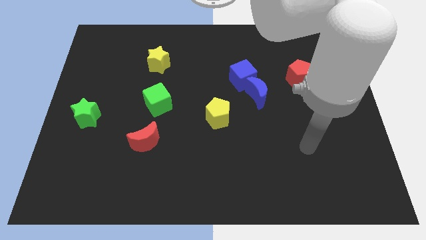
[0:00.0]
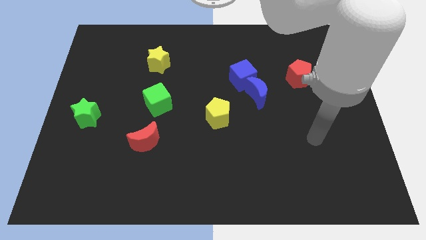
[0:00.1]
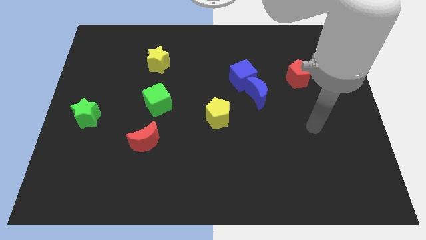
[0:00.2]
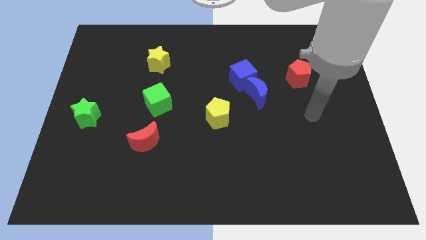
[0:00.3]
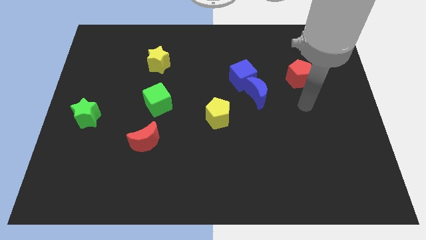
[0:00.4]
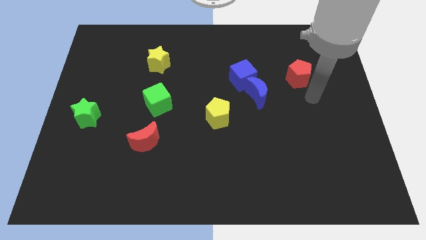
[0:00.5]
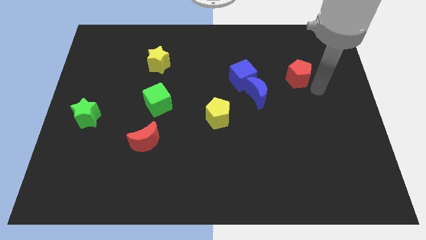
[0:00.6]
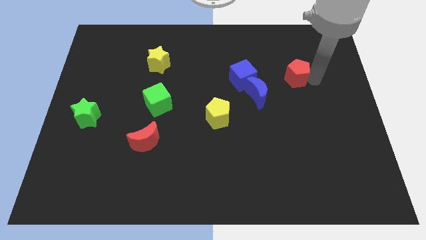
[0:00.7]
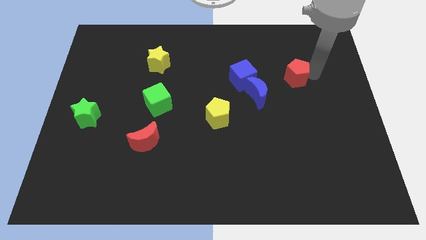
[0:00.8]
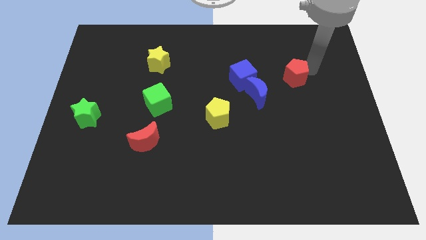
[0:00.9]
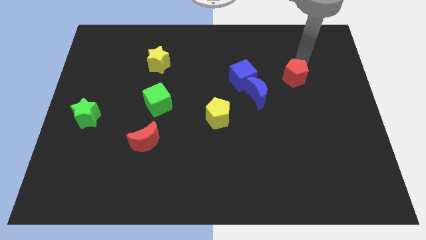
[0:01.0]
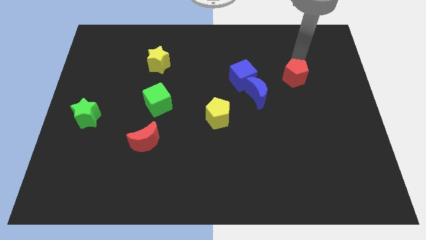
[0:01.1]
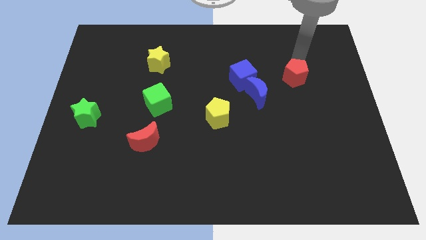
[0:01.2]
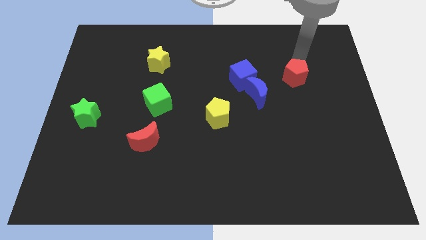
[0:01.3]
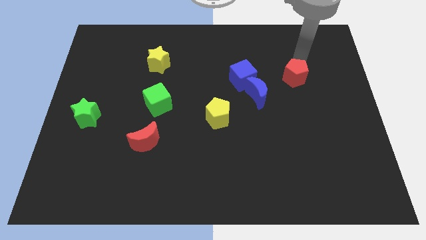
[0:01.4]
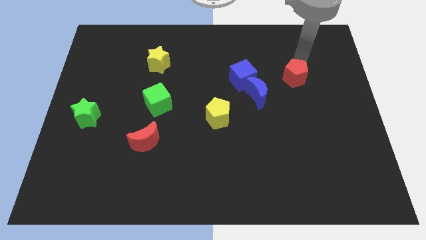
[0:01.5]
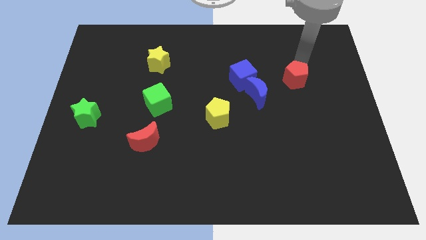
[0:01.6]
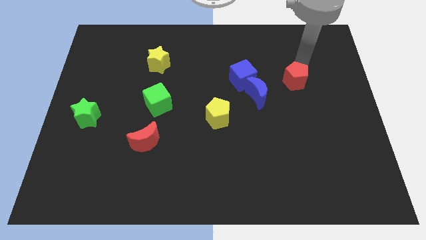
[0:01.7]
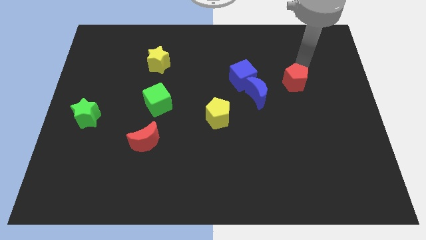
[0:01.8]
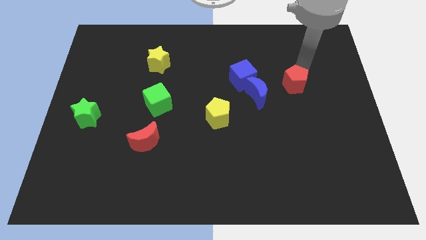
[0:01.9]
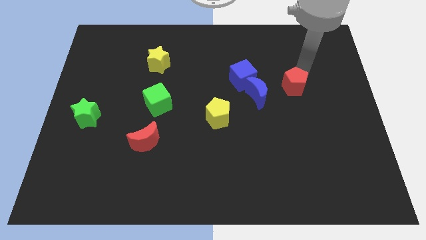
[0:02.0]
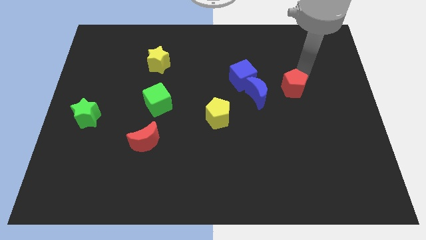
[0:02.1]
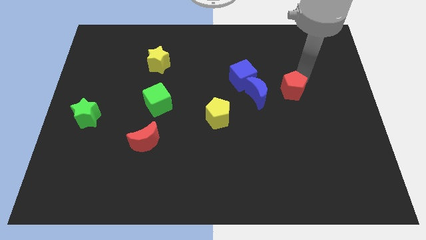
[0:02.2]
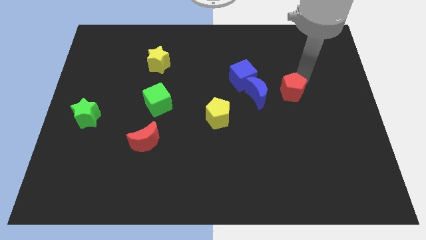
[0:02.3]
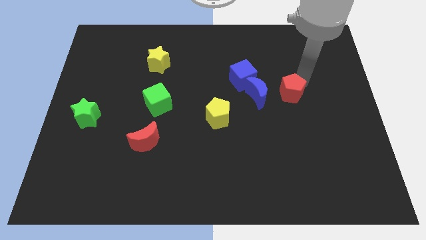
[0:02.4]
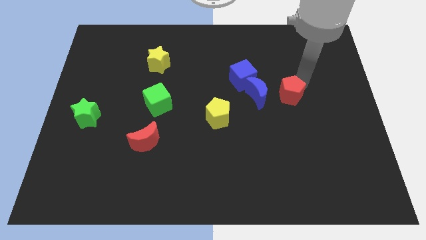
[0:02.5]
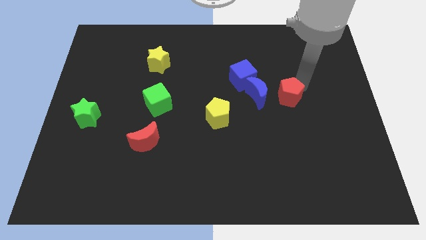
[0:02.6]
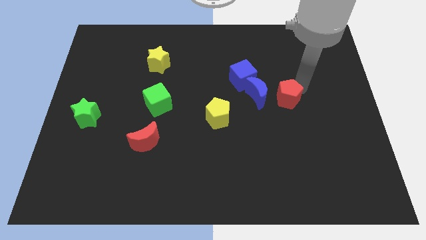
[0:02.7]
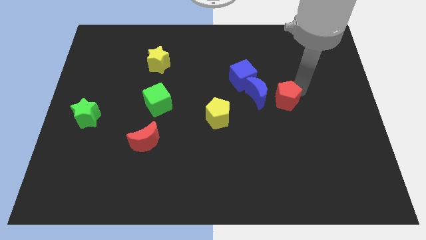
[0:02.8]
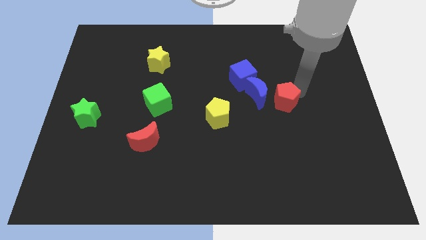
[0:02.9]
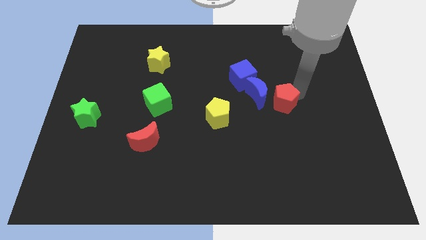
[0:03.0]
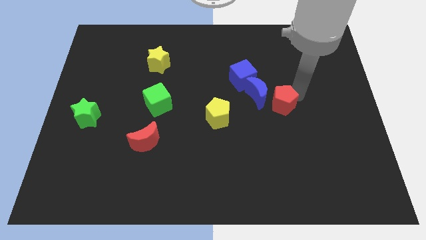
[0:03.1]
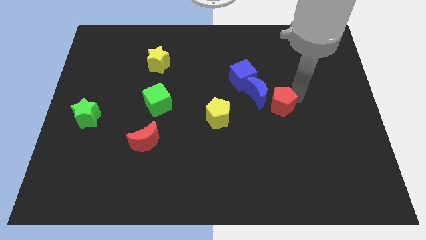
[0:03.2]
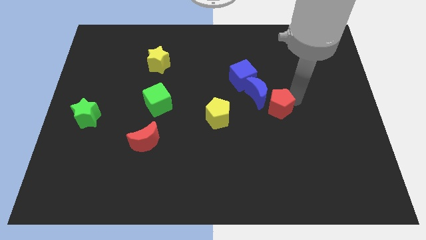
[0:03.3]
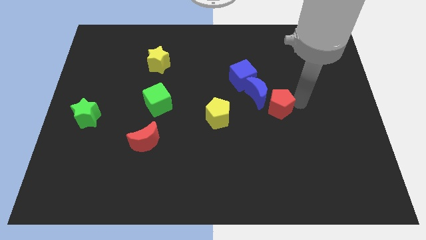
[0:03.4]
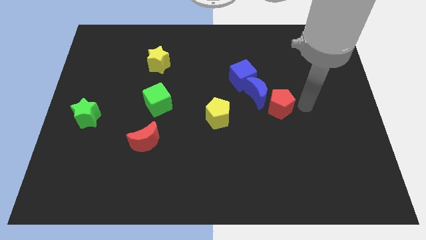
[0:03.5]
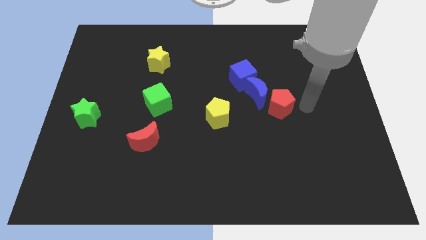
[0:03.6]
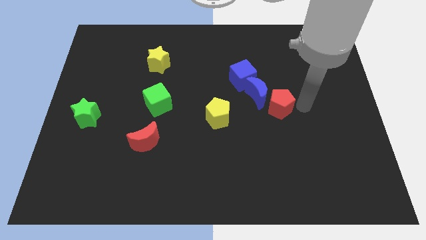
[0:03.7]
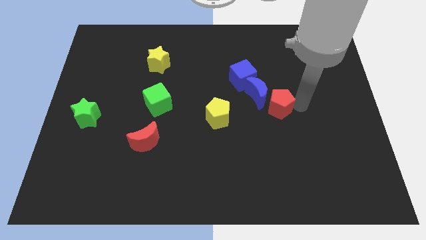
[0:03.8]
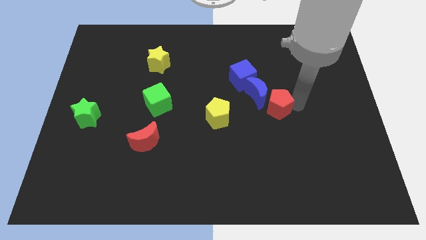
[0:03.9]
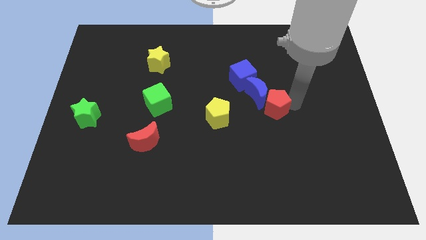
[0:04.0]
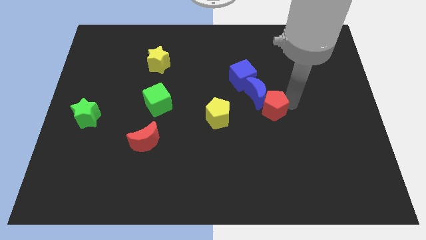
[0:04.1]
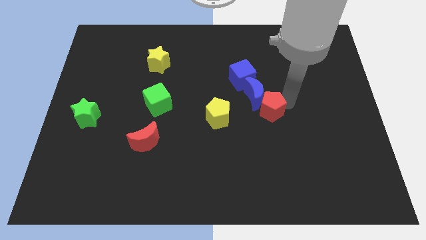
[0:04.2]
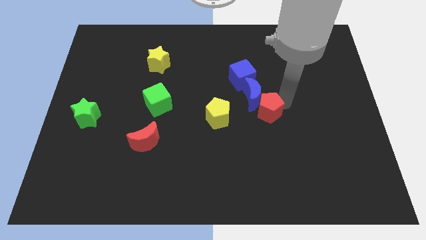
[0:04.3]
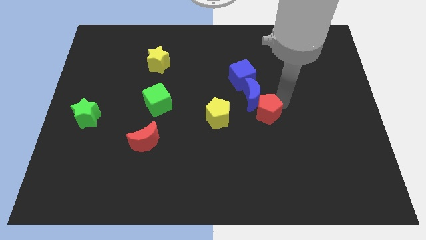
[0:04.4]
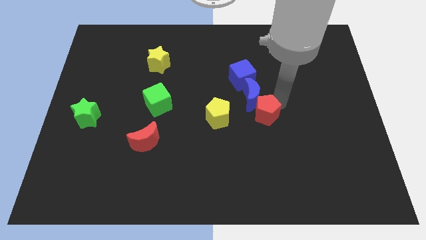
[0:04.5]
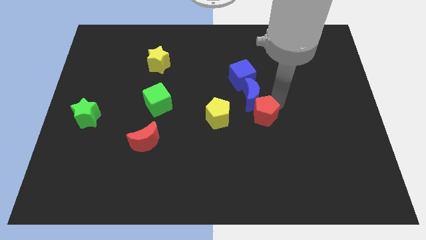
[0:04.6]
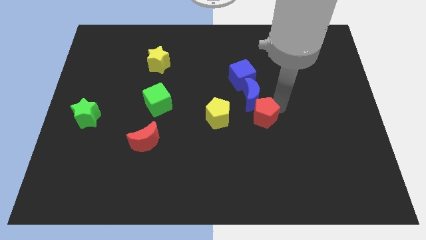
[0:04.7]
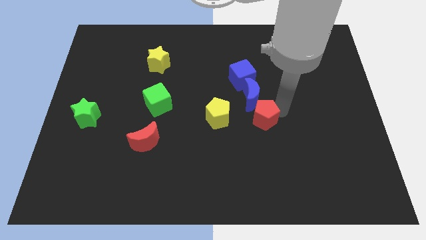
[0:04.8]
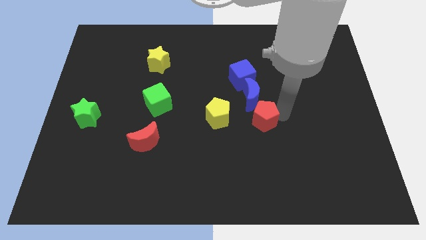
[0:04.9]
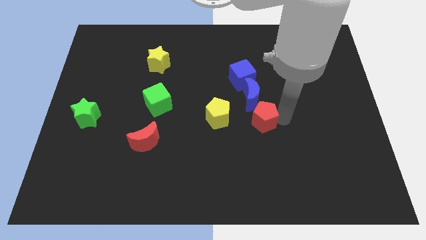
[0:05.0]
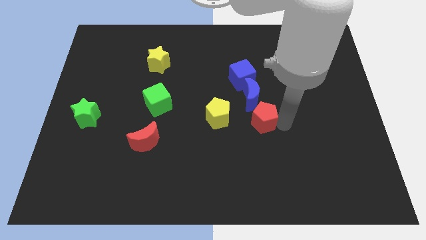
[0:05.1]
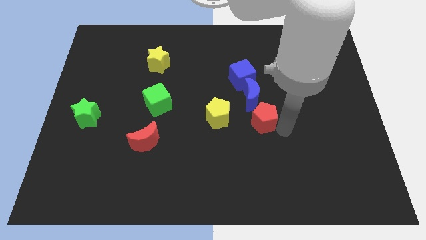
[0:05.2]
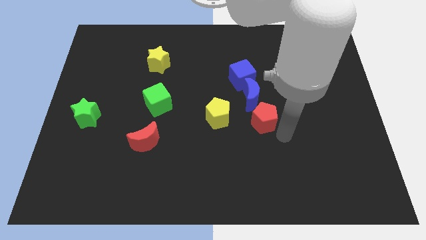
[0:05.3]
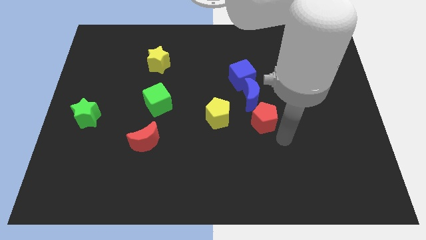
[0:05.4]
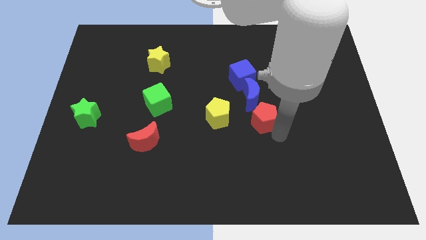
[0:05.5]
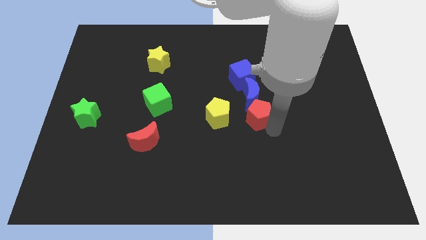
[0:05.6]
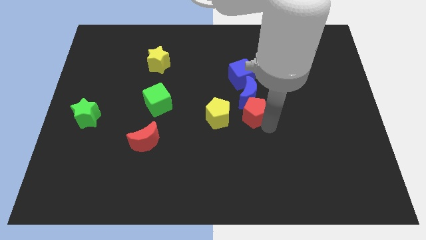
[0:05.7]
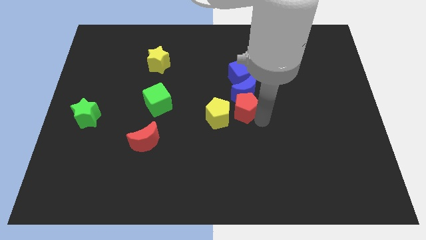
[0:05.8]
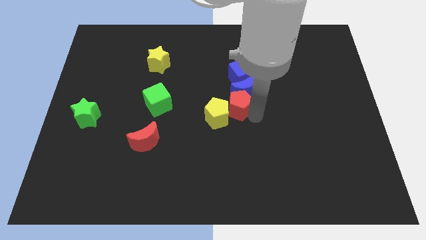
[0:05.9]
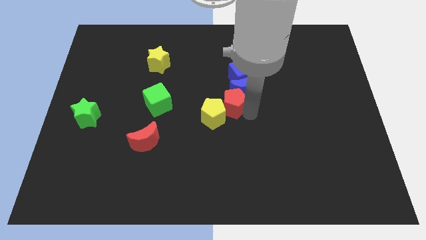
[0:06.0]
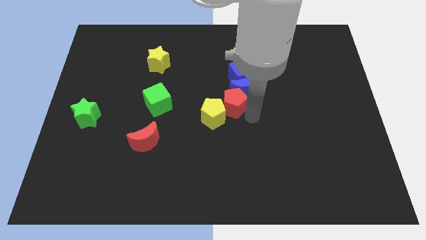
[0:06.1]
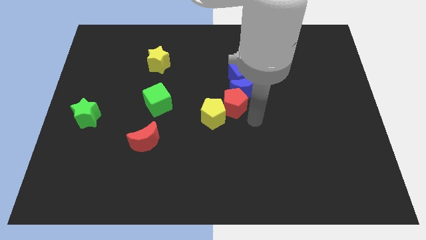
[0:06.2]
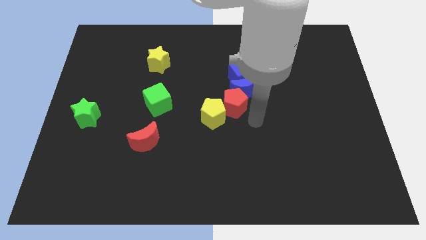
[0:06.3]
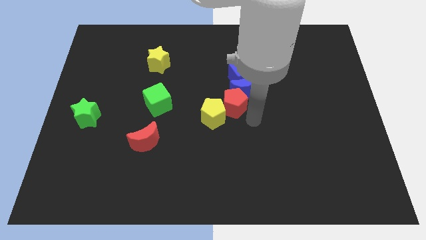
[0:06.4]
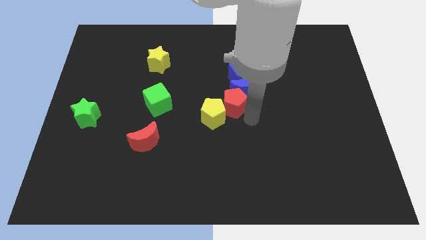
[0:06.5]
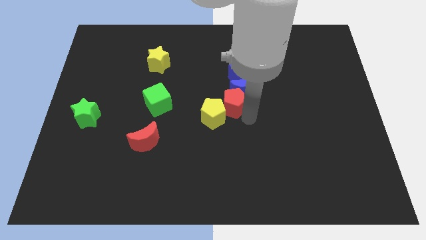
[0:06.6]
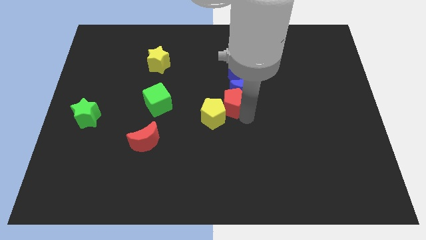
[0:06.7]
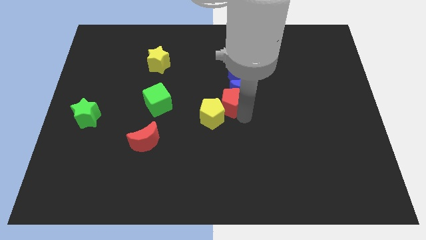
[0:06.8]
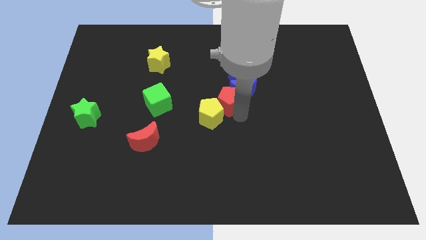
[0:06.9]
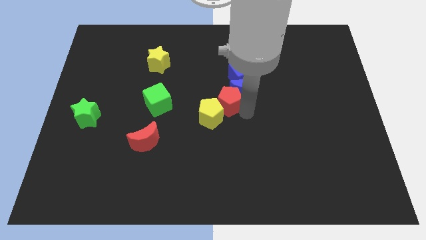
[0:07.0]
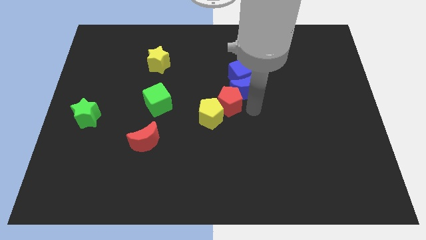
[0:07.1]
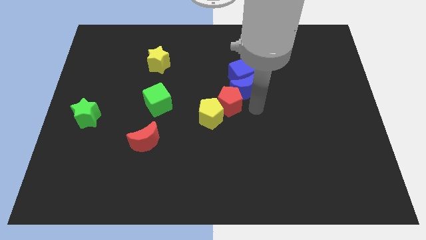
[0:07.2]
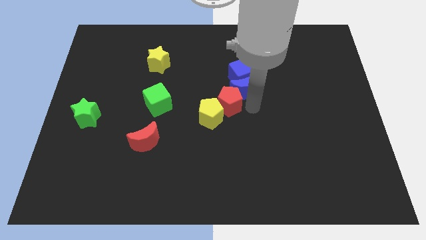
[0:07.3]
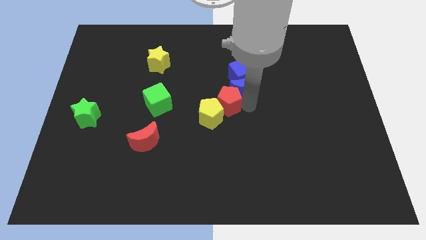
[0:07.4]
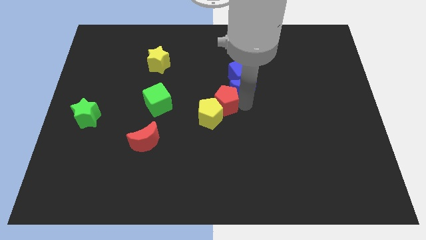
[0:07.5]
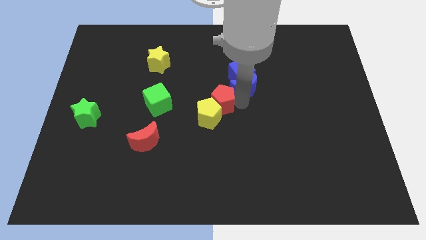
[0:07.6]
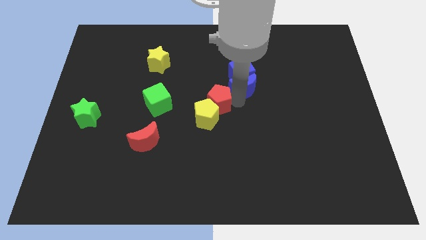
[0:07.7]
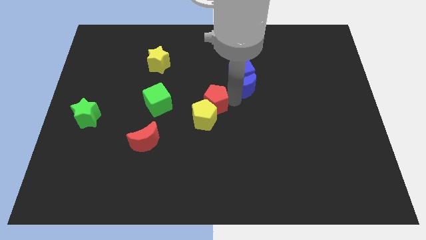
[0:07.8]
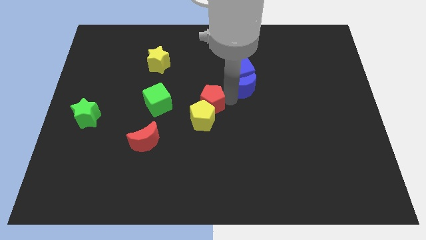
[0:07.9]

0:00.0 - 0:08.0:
push the red pentagon to the top left of the yellow pentagon
